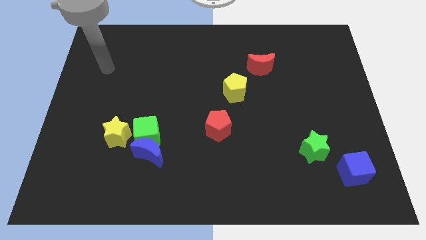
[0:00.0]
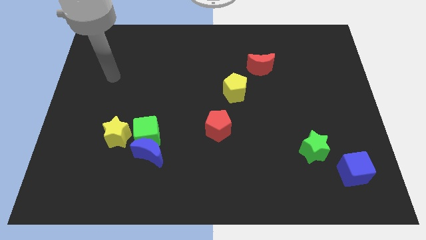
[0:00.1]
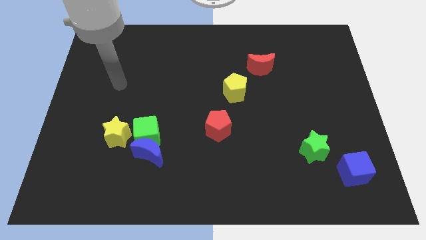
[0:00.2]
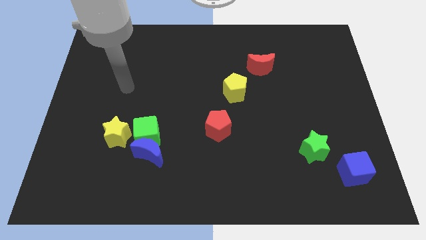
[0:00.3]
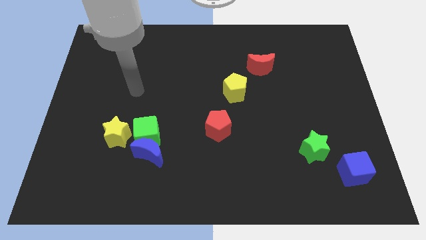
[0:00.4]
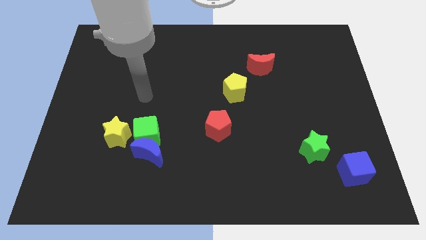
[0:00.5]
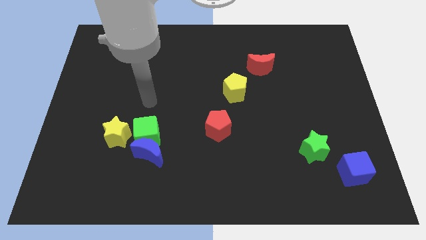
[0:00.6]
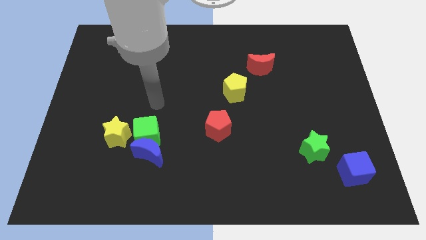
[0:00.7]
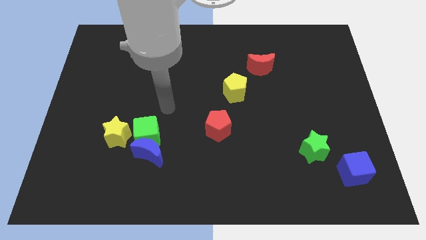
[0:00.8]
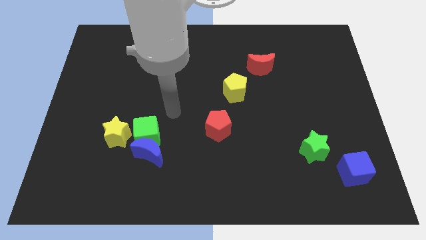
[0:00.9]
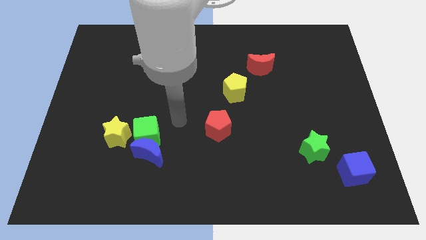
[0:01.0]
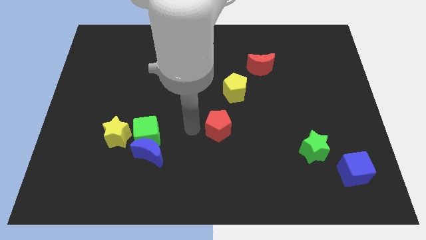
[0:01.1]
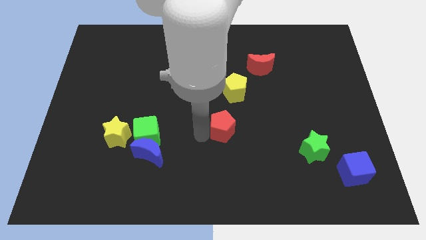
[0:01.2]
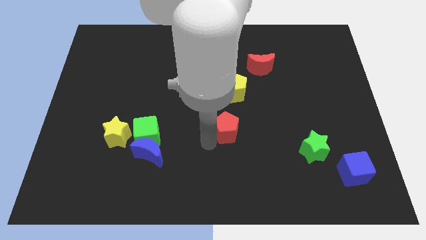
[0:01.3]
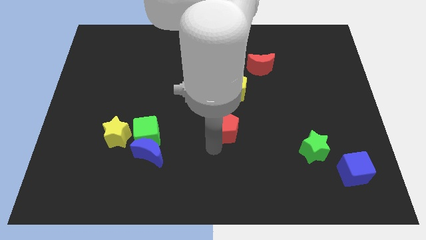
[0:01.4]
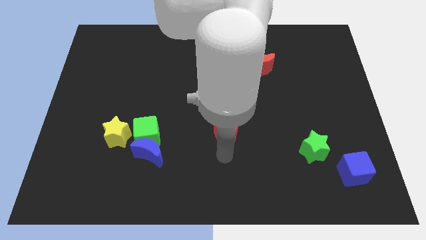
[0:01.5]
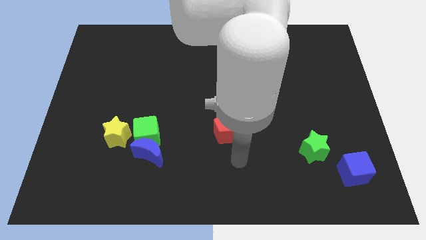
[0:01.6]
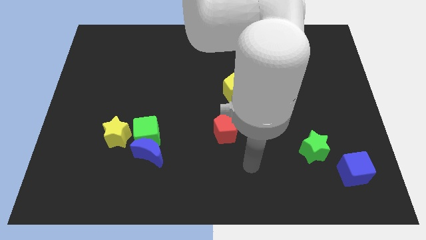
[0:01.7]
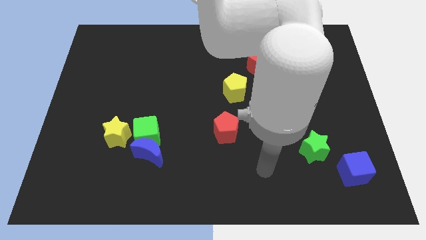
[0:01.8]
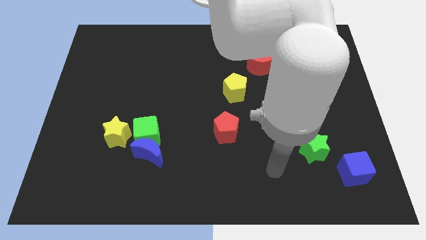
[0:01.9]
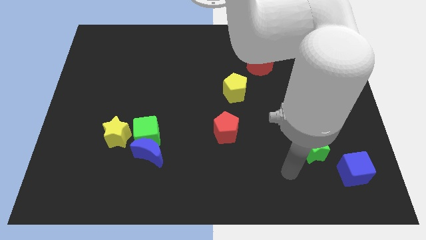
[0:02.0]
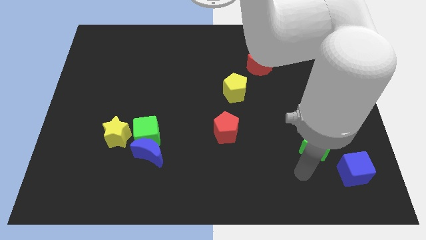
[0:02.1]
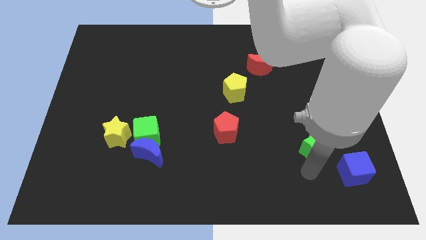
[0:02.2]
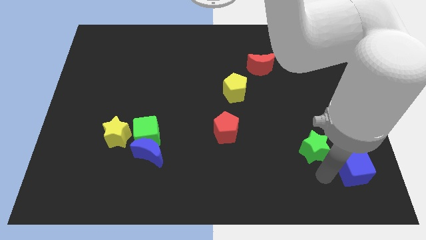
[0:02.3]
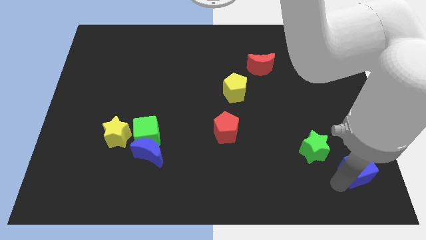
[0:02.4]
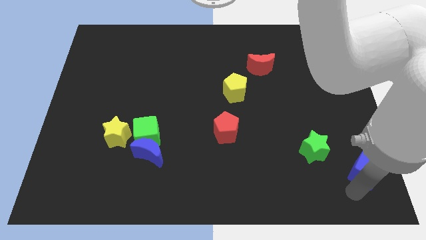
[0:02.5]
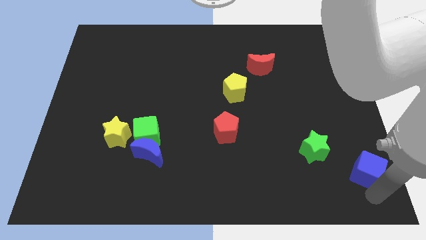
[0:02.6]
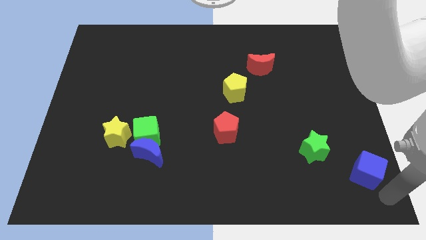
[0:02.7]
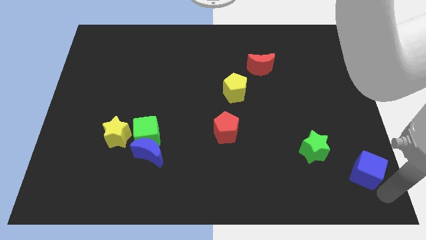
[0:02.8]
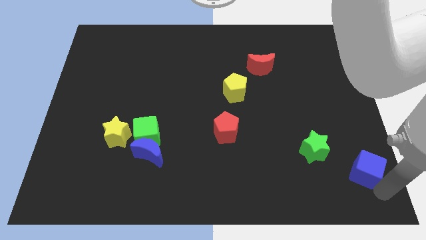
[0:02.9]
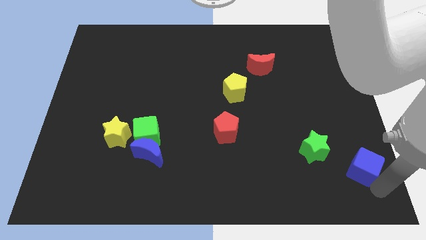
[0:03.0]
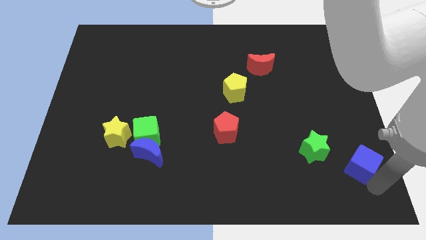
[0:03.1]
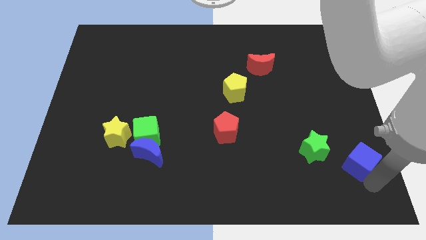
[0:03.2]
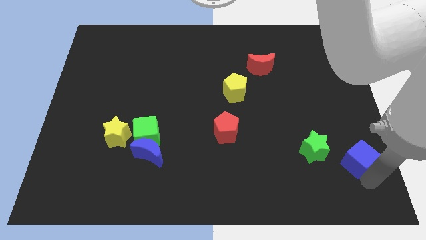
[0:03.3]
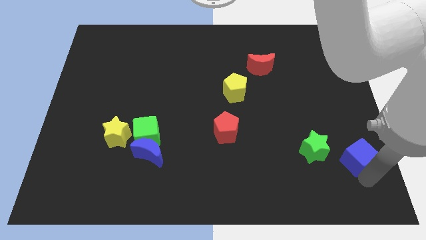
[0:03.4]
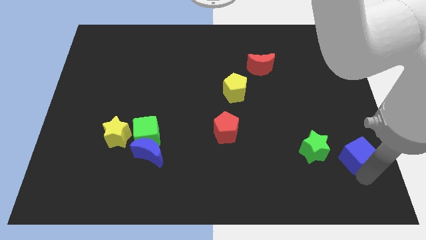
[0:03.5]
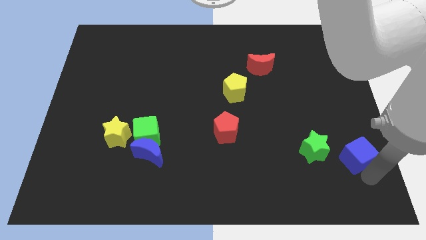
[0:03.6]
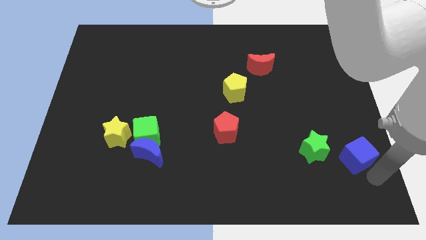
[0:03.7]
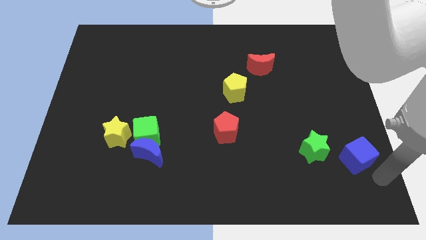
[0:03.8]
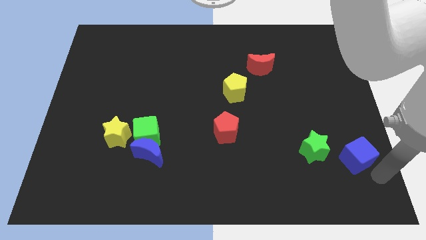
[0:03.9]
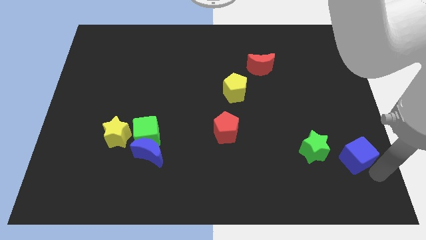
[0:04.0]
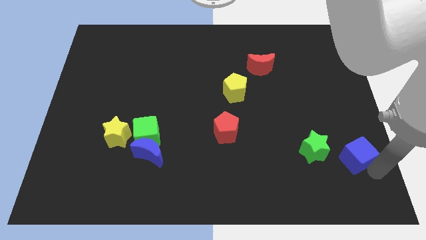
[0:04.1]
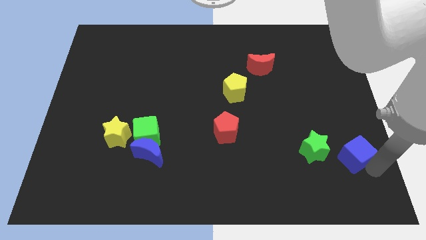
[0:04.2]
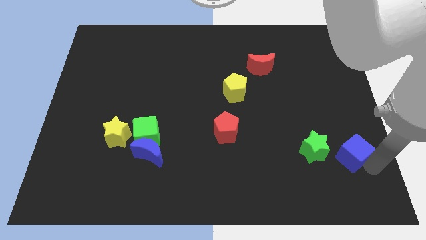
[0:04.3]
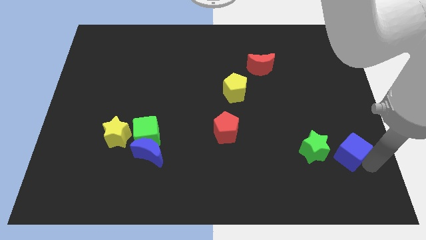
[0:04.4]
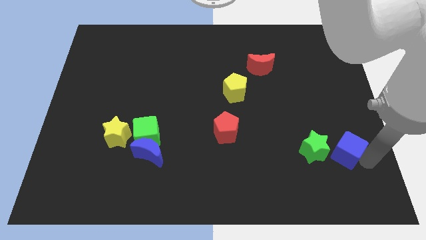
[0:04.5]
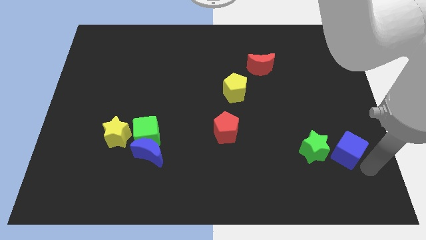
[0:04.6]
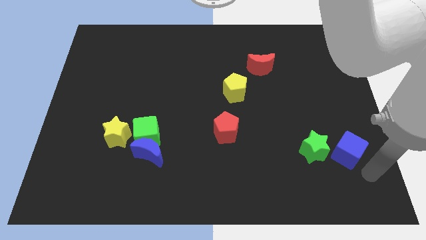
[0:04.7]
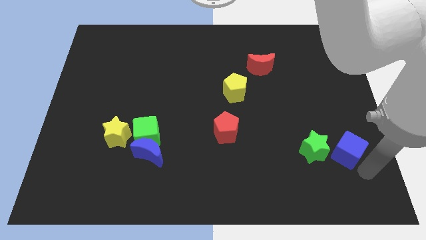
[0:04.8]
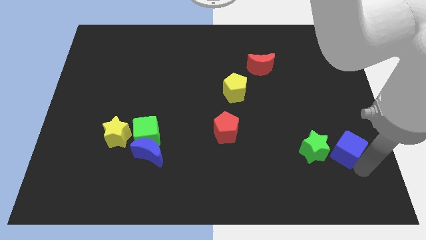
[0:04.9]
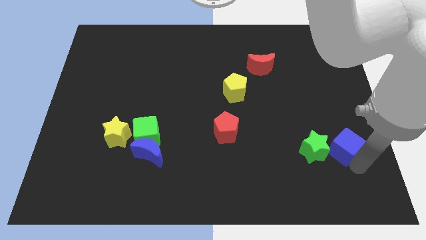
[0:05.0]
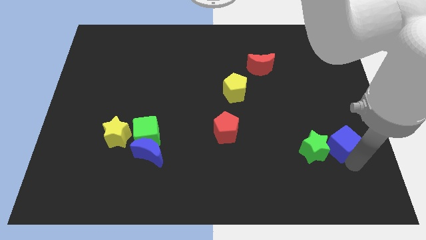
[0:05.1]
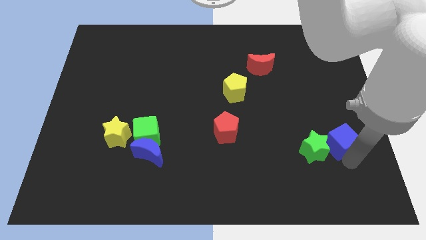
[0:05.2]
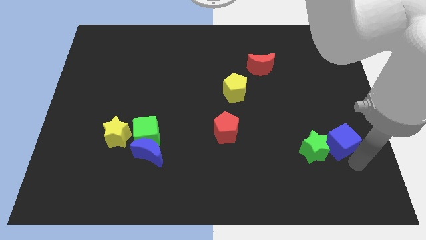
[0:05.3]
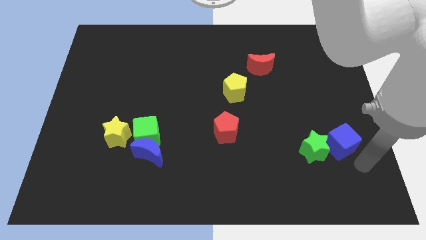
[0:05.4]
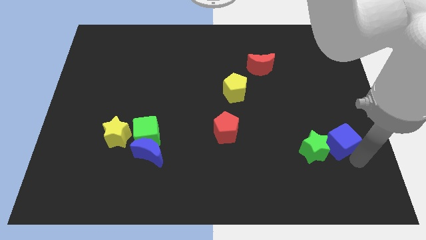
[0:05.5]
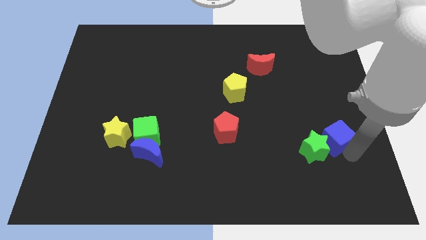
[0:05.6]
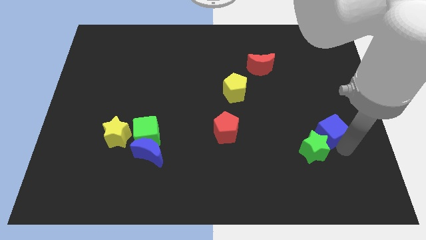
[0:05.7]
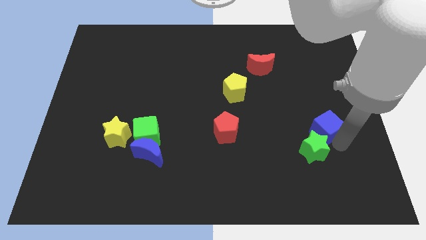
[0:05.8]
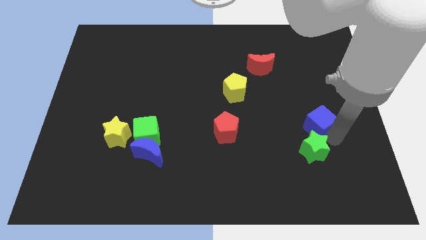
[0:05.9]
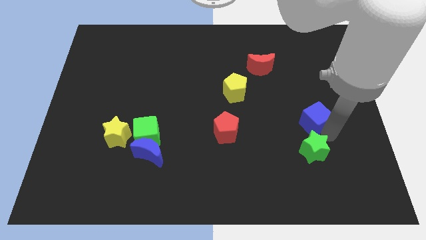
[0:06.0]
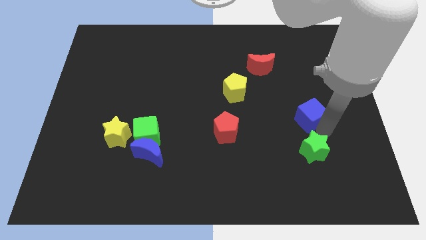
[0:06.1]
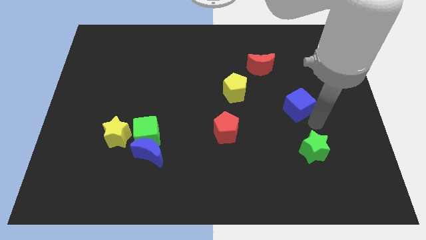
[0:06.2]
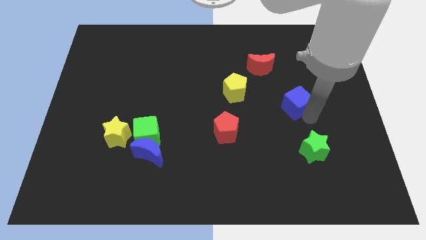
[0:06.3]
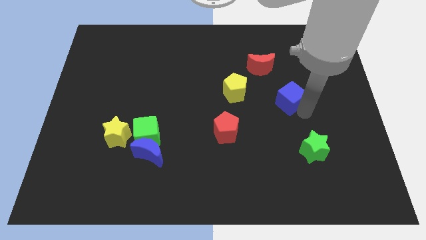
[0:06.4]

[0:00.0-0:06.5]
slide the blue cube to the right of the yellow pentagon
